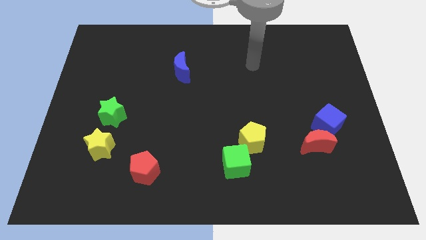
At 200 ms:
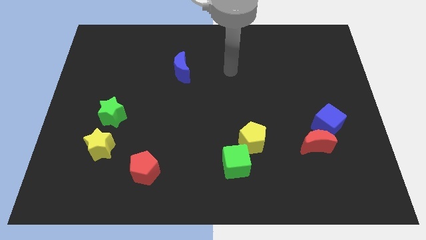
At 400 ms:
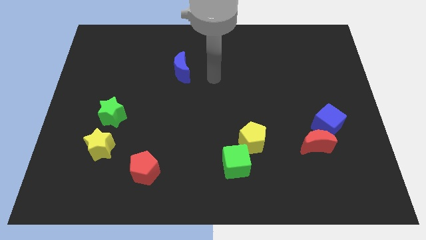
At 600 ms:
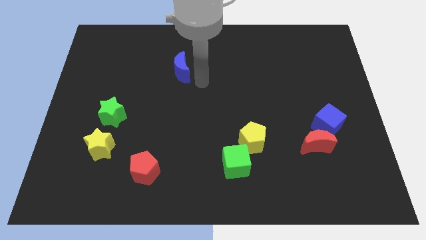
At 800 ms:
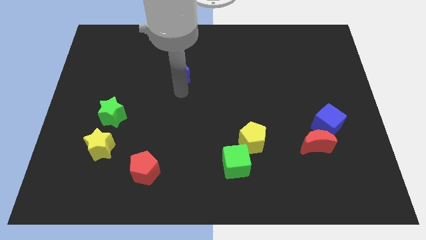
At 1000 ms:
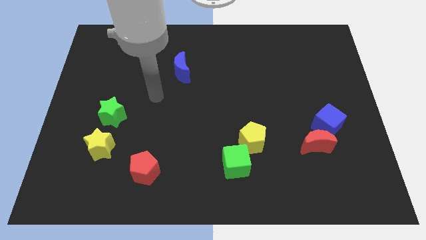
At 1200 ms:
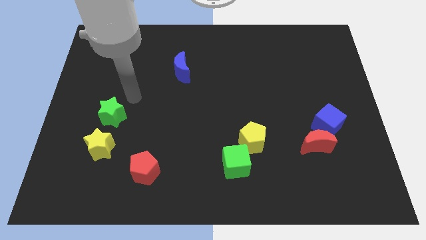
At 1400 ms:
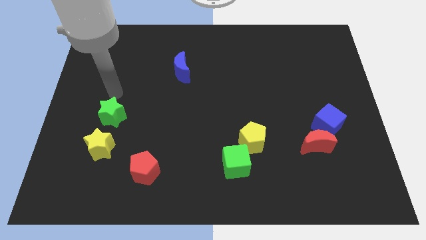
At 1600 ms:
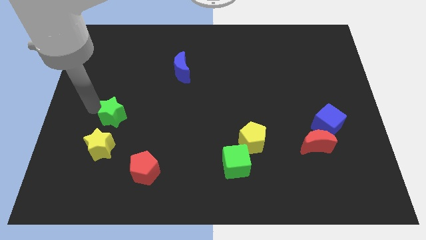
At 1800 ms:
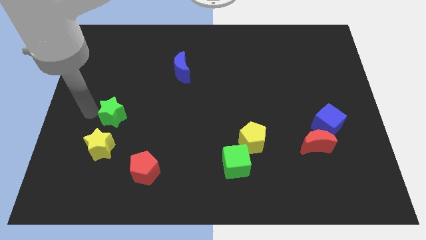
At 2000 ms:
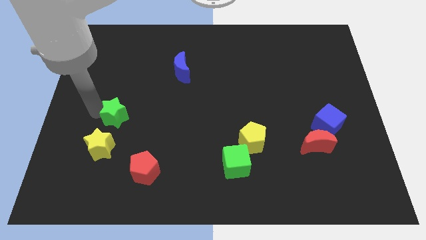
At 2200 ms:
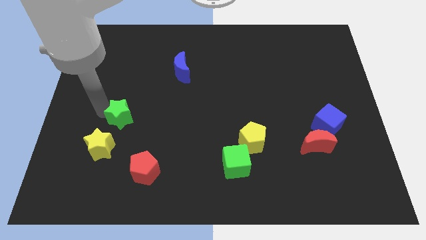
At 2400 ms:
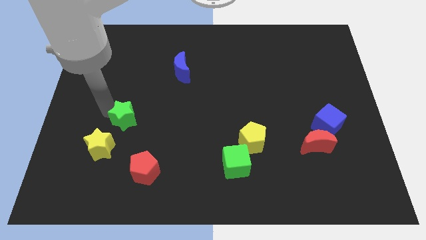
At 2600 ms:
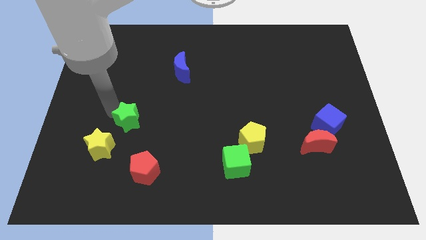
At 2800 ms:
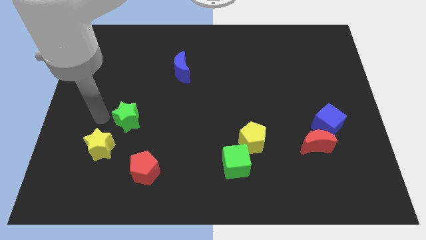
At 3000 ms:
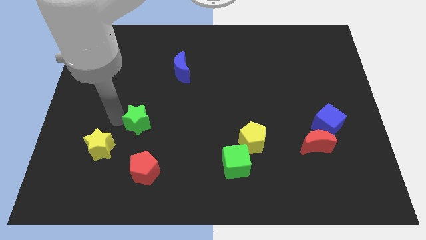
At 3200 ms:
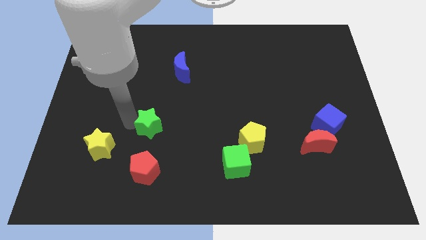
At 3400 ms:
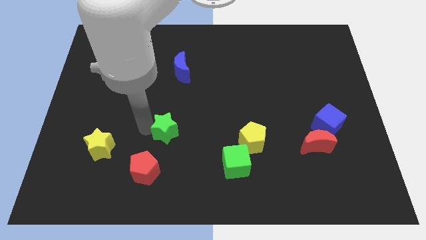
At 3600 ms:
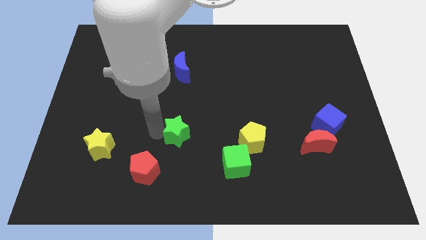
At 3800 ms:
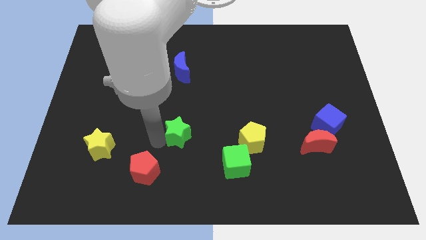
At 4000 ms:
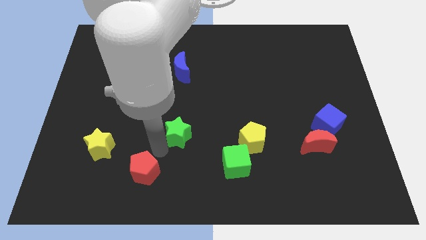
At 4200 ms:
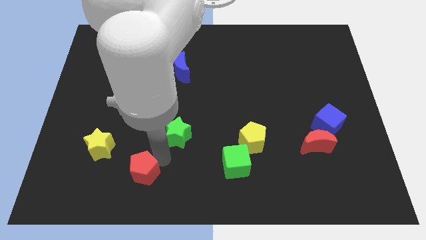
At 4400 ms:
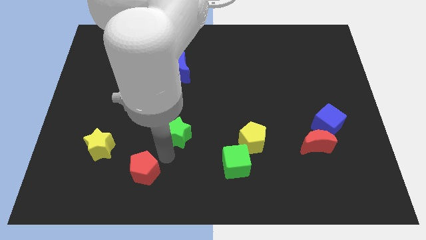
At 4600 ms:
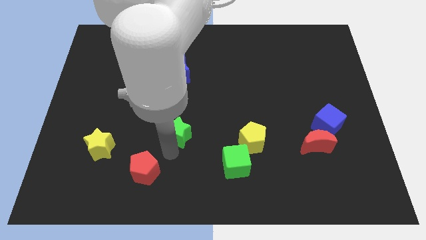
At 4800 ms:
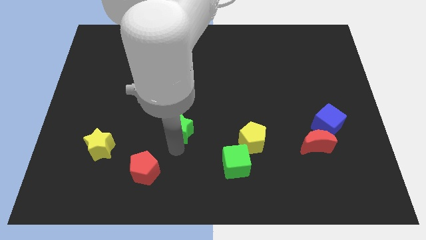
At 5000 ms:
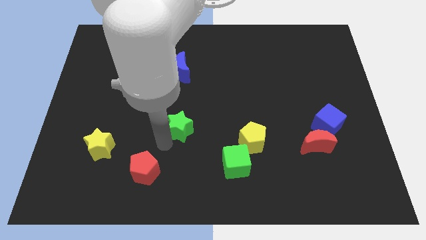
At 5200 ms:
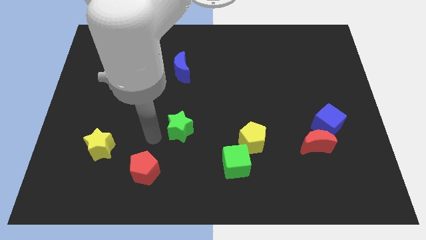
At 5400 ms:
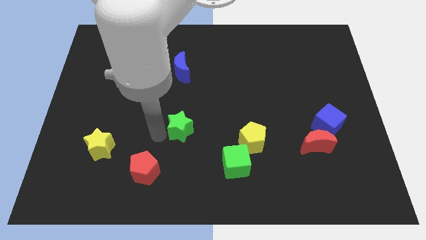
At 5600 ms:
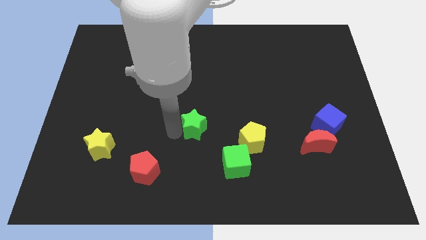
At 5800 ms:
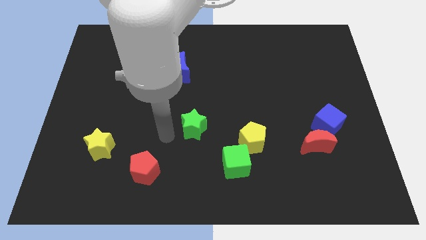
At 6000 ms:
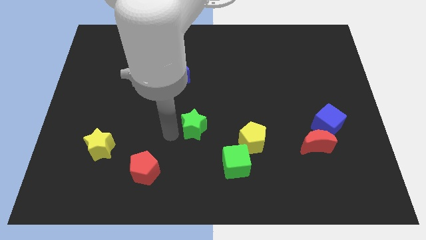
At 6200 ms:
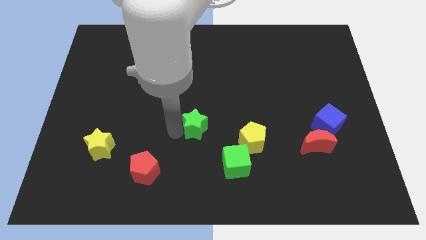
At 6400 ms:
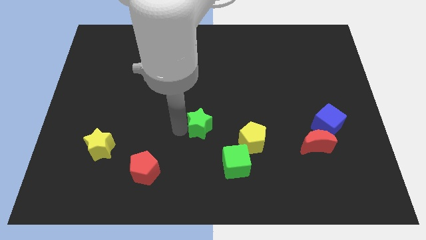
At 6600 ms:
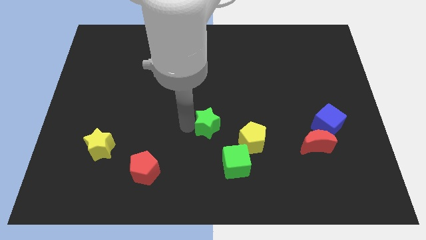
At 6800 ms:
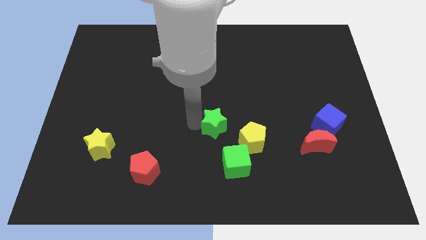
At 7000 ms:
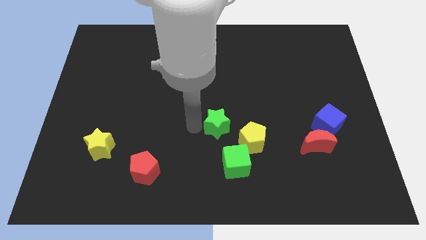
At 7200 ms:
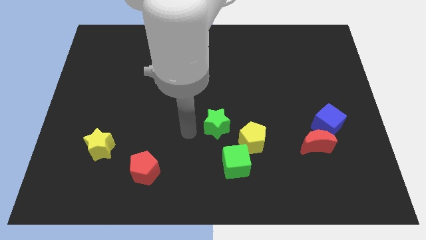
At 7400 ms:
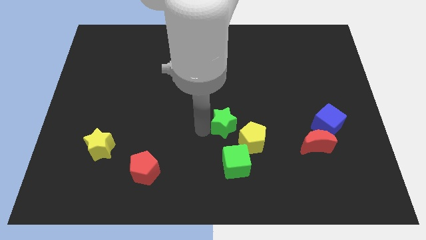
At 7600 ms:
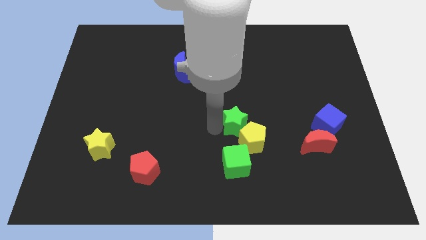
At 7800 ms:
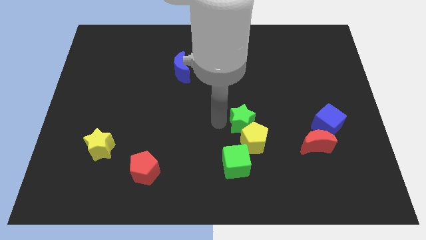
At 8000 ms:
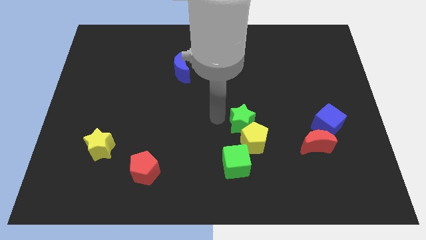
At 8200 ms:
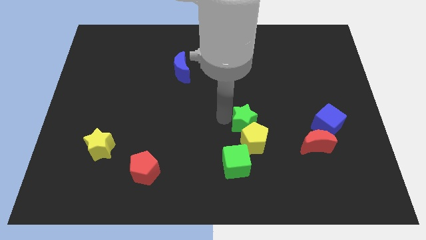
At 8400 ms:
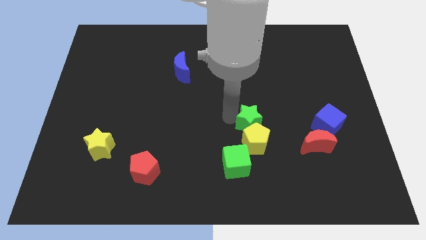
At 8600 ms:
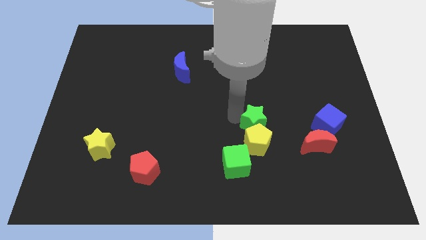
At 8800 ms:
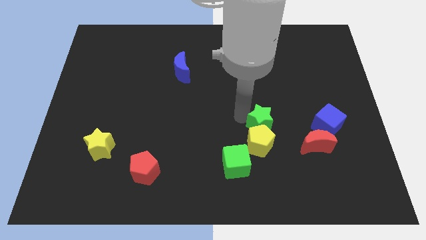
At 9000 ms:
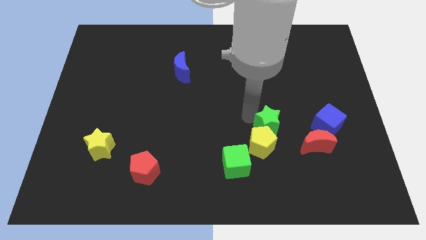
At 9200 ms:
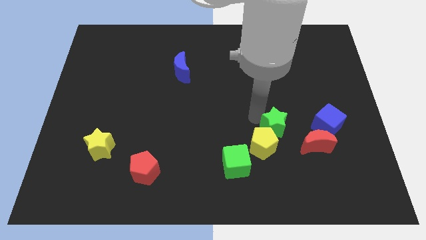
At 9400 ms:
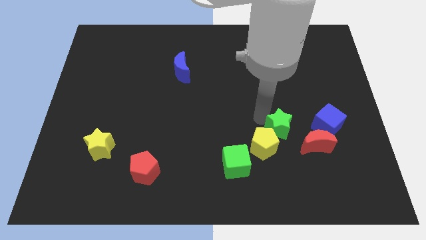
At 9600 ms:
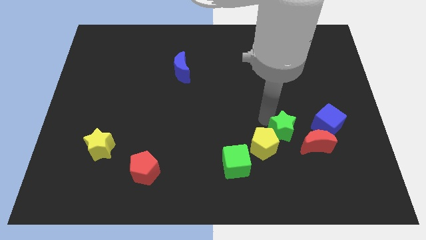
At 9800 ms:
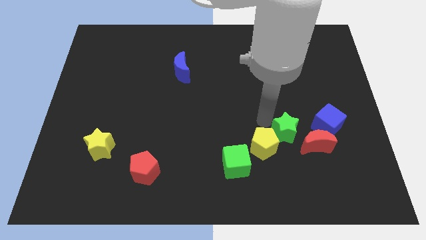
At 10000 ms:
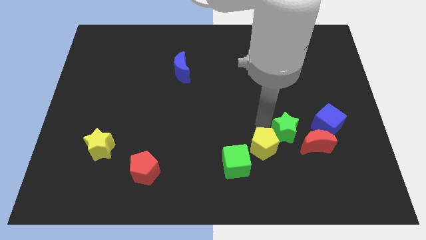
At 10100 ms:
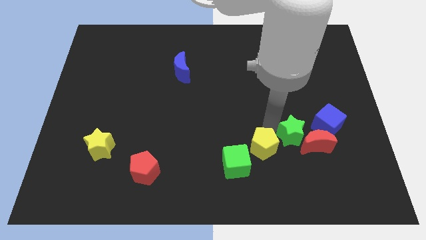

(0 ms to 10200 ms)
slide the green star close to the red moon

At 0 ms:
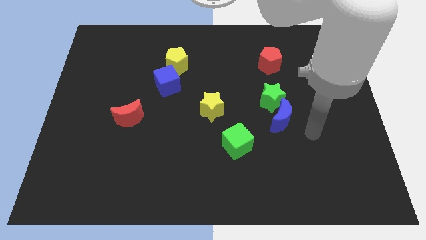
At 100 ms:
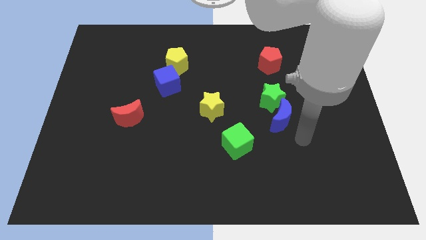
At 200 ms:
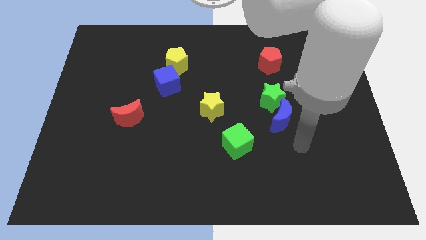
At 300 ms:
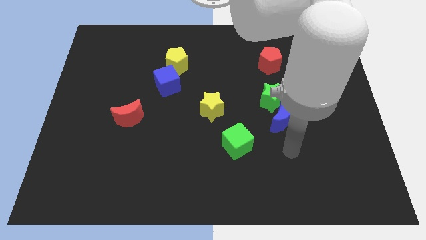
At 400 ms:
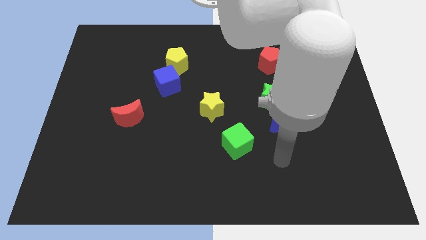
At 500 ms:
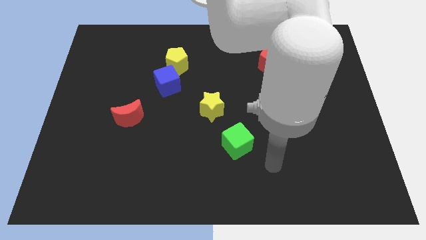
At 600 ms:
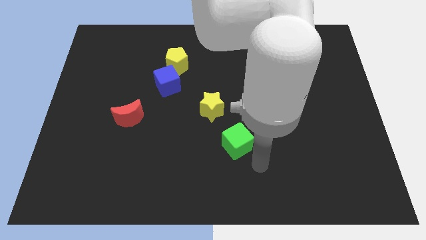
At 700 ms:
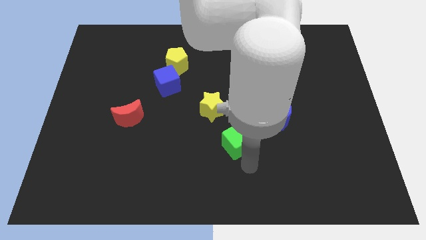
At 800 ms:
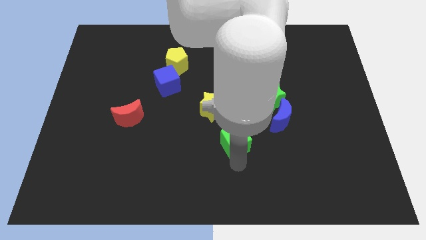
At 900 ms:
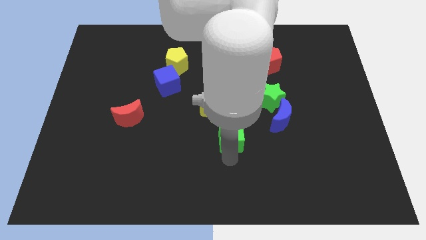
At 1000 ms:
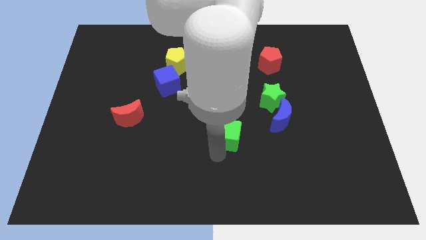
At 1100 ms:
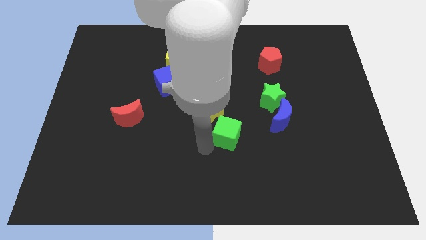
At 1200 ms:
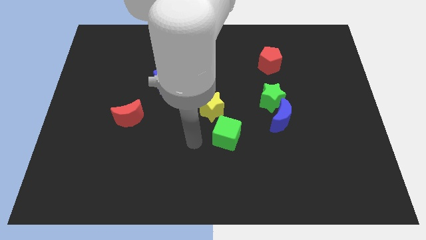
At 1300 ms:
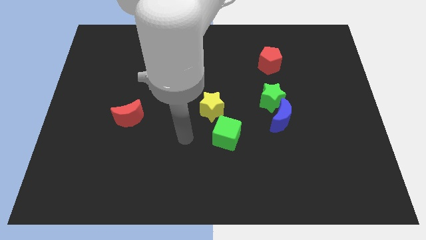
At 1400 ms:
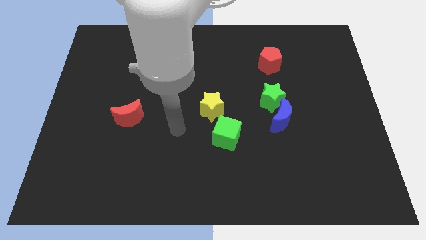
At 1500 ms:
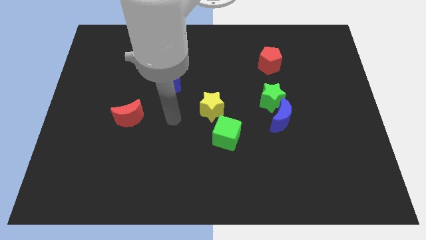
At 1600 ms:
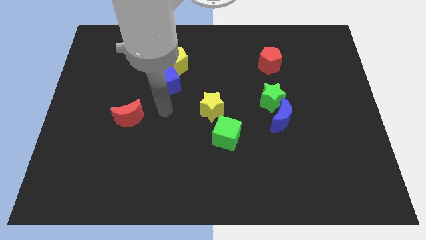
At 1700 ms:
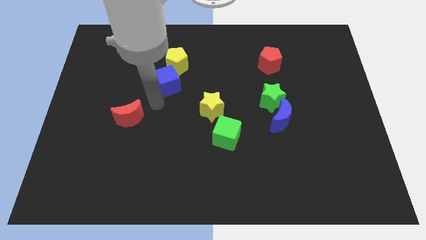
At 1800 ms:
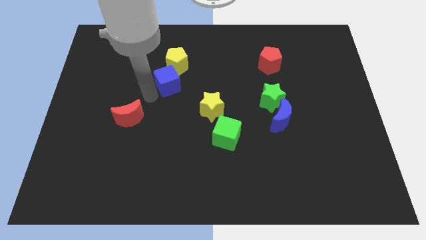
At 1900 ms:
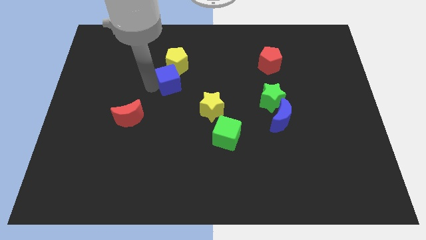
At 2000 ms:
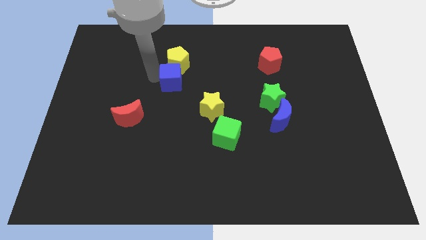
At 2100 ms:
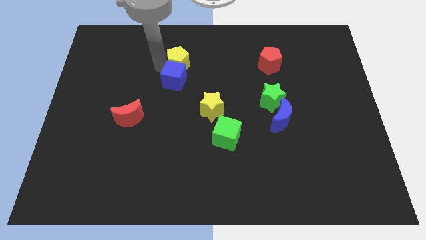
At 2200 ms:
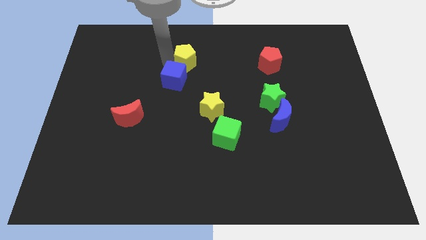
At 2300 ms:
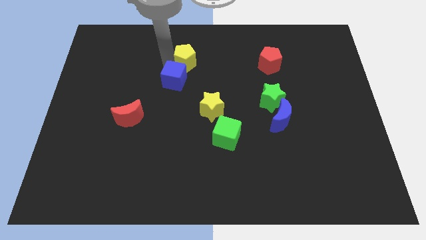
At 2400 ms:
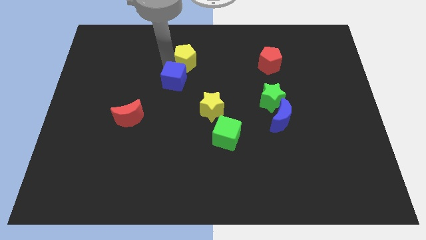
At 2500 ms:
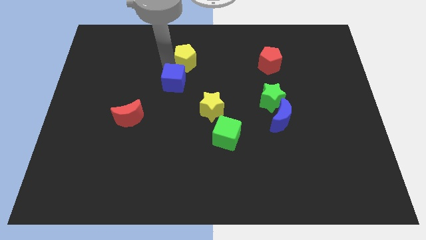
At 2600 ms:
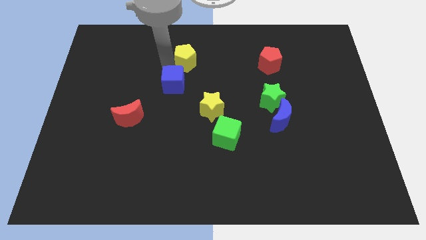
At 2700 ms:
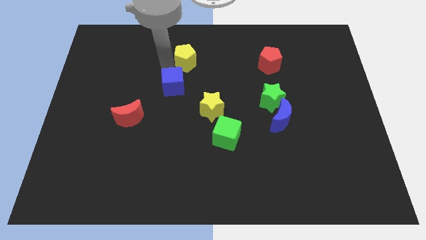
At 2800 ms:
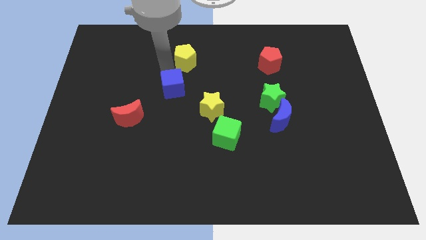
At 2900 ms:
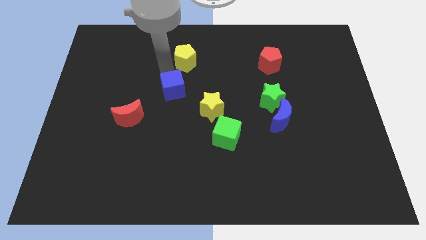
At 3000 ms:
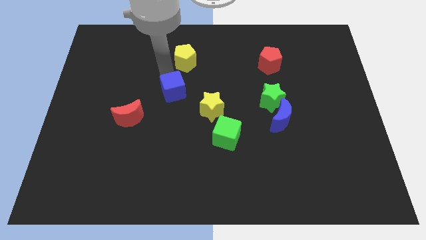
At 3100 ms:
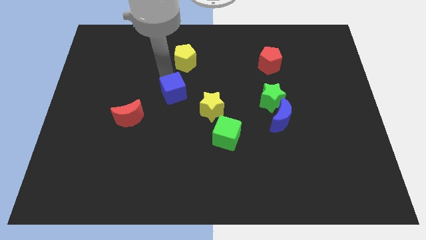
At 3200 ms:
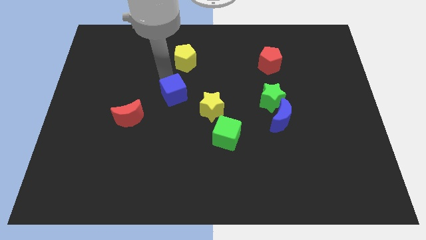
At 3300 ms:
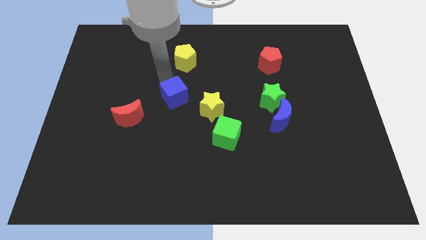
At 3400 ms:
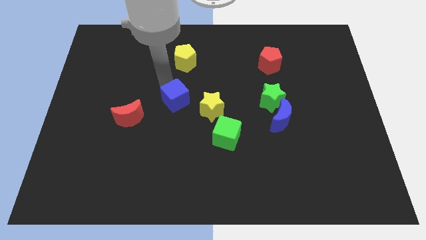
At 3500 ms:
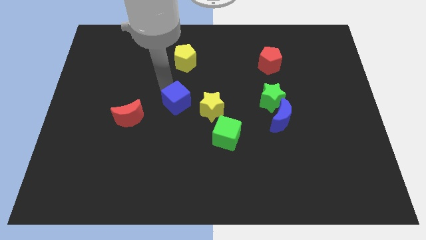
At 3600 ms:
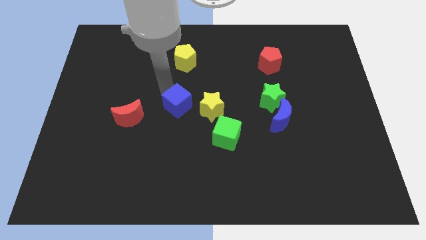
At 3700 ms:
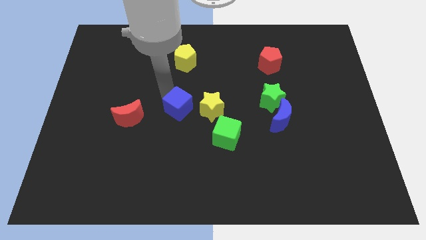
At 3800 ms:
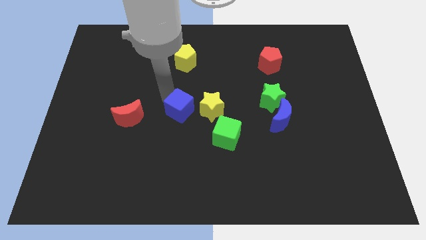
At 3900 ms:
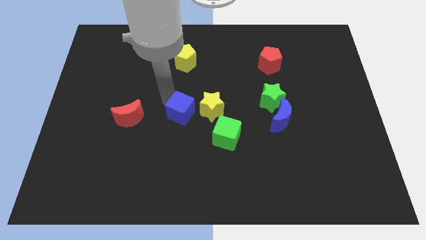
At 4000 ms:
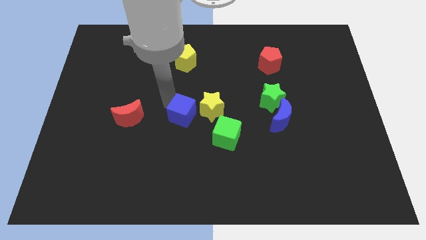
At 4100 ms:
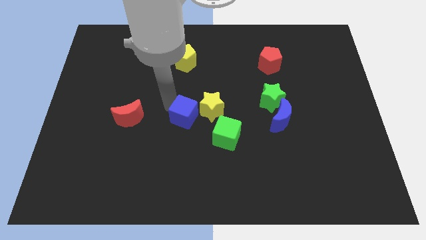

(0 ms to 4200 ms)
push the blue cube close to the yellow star
